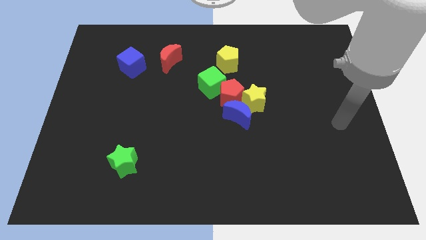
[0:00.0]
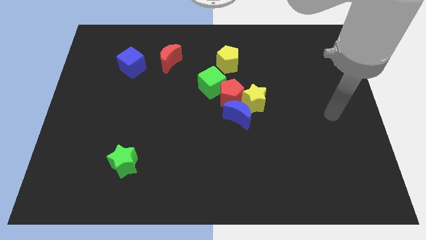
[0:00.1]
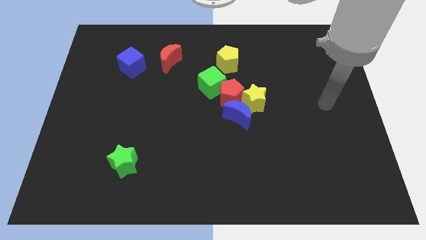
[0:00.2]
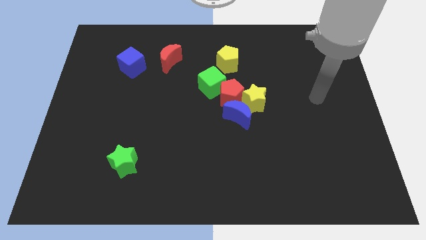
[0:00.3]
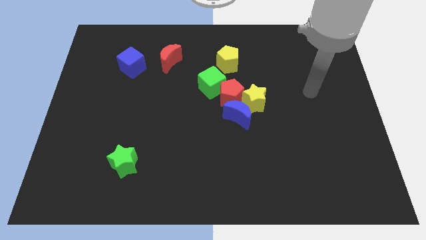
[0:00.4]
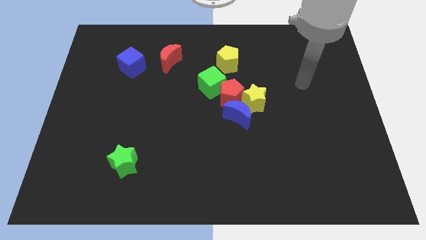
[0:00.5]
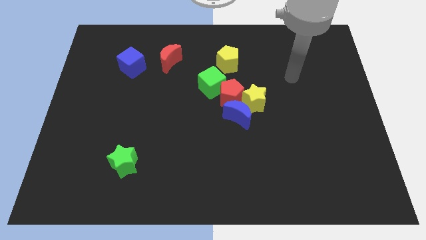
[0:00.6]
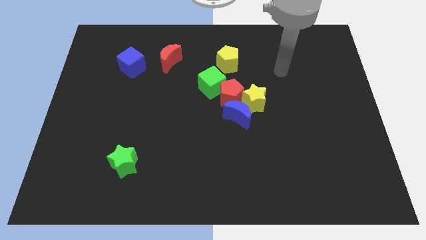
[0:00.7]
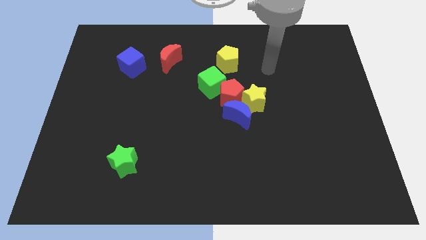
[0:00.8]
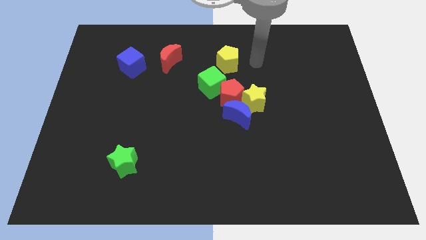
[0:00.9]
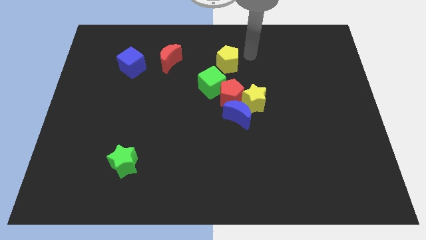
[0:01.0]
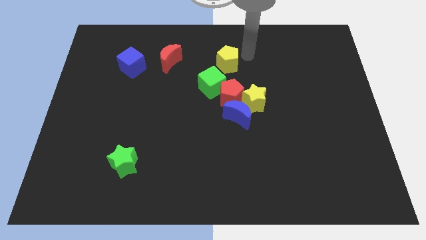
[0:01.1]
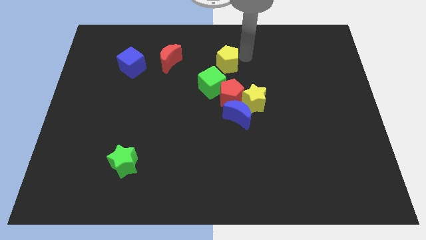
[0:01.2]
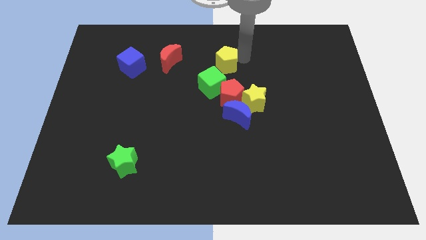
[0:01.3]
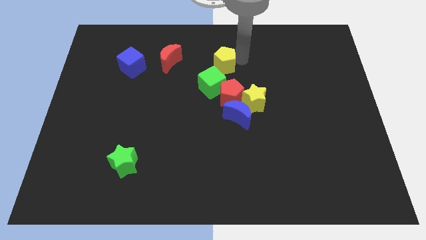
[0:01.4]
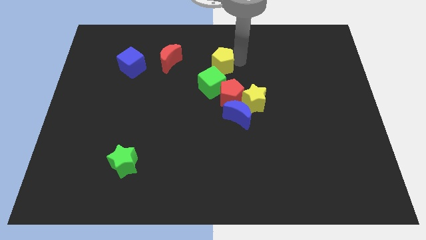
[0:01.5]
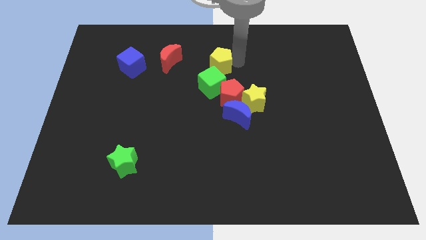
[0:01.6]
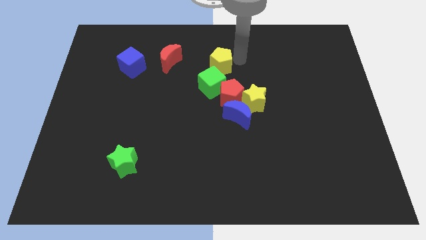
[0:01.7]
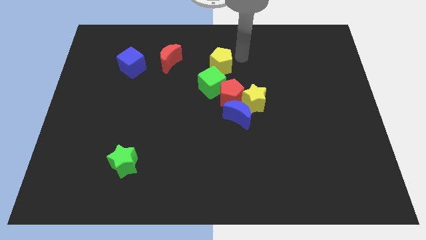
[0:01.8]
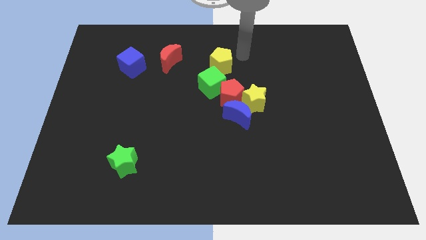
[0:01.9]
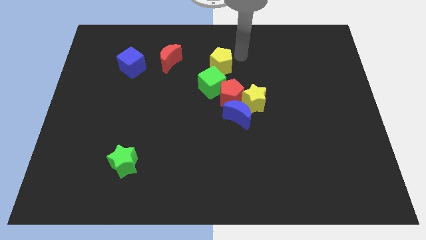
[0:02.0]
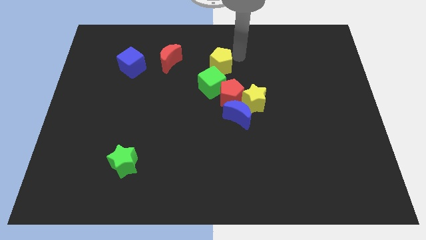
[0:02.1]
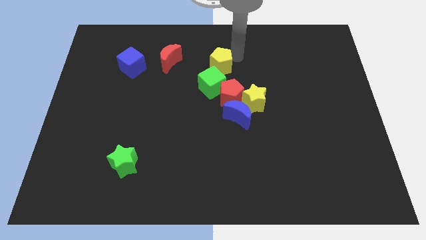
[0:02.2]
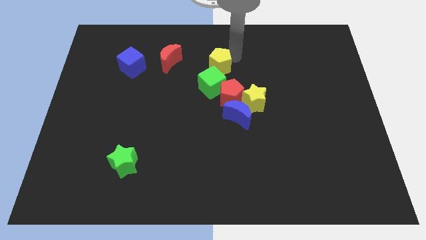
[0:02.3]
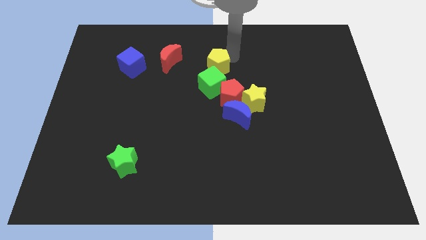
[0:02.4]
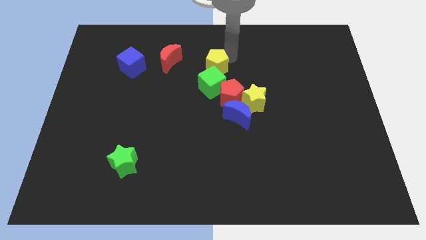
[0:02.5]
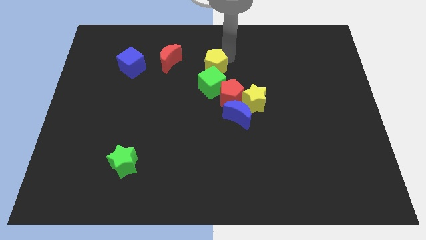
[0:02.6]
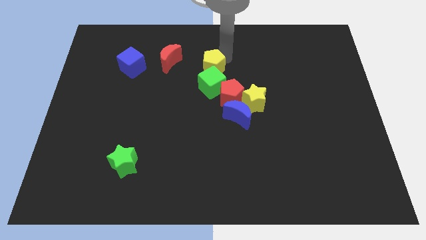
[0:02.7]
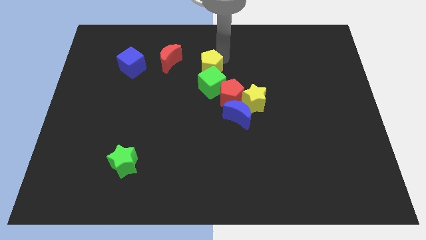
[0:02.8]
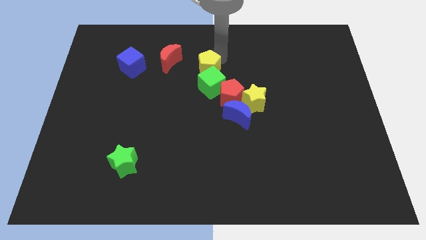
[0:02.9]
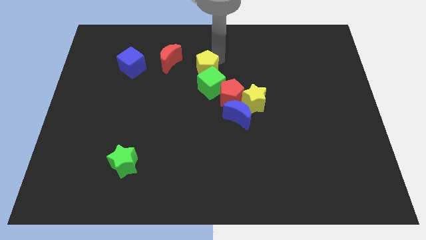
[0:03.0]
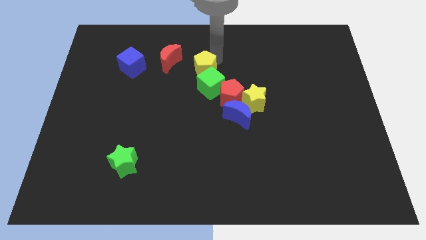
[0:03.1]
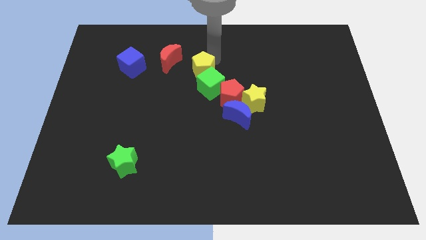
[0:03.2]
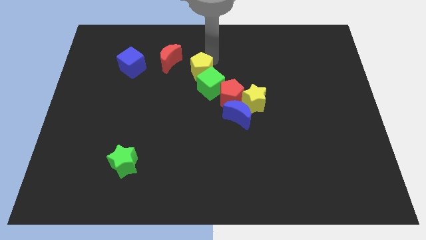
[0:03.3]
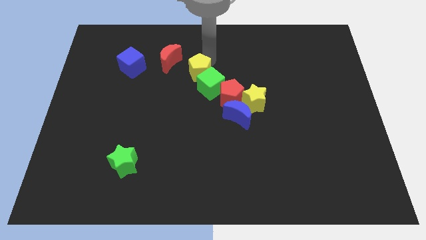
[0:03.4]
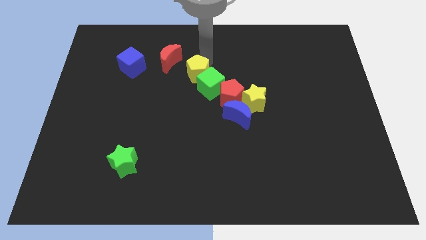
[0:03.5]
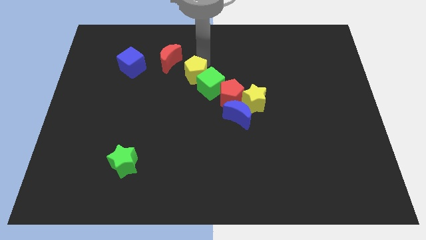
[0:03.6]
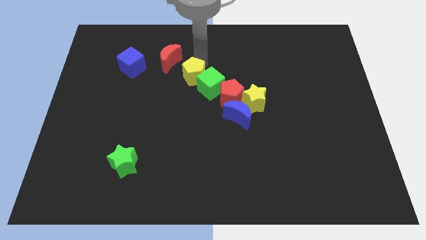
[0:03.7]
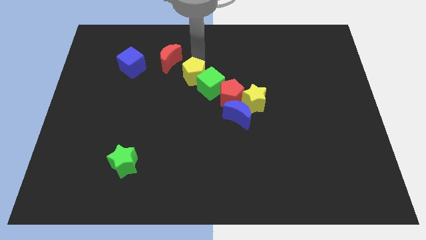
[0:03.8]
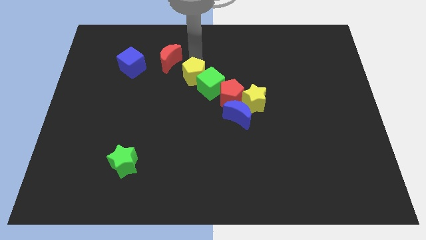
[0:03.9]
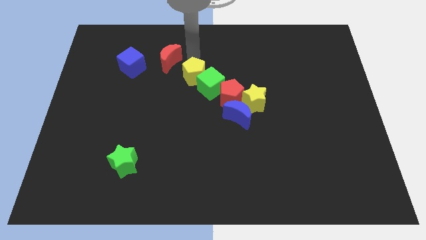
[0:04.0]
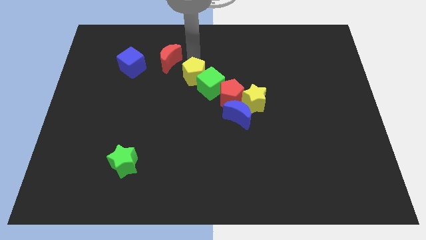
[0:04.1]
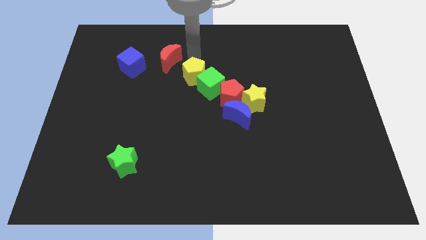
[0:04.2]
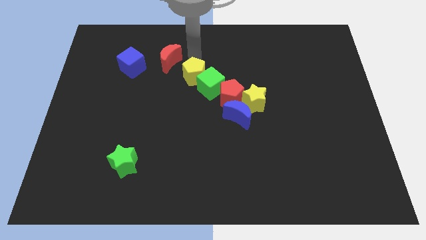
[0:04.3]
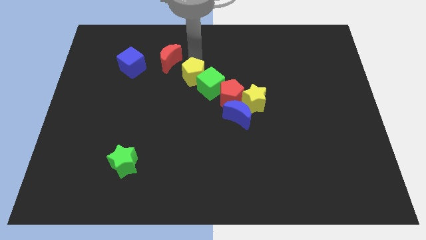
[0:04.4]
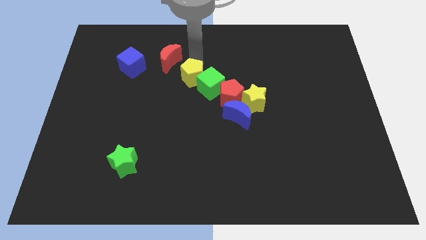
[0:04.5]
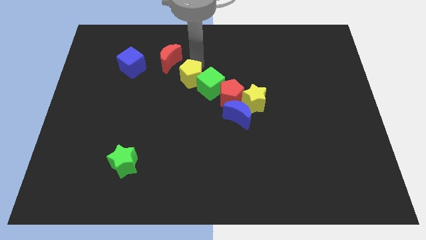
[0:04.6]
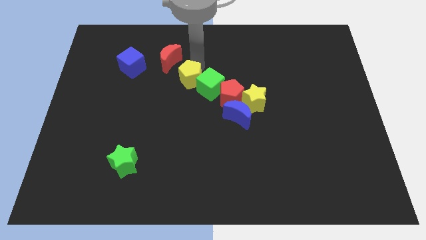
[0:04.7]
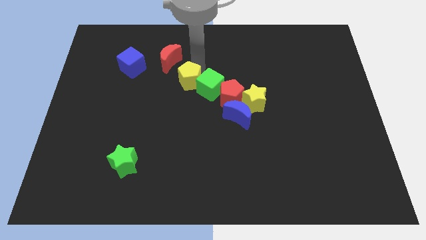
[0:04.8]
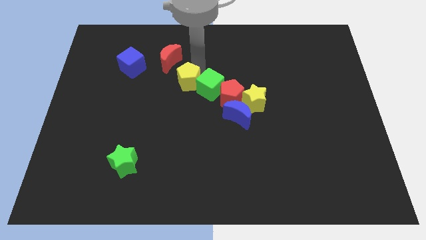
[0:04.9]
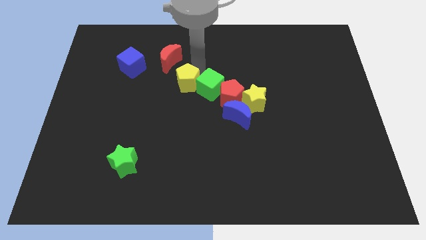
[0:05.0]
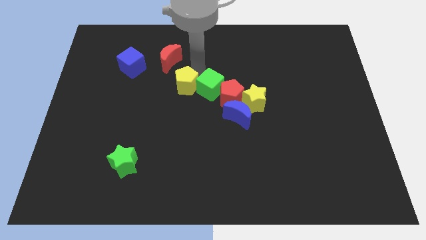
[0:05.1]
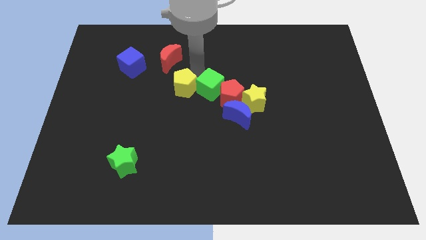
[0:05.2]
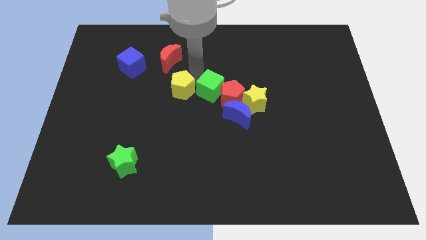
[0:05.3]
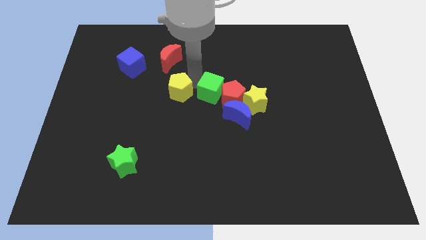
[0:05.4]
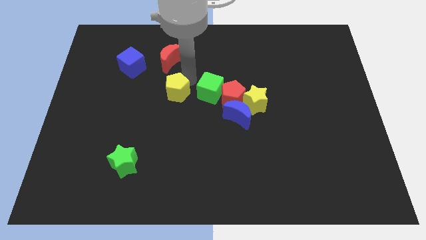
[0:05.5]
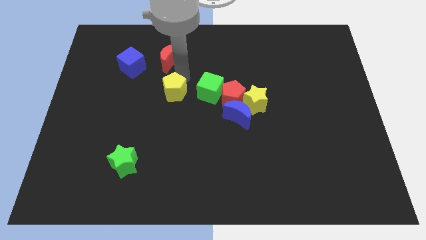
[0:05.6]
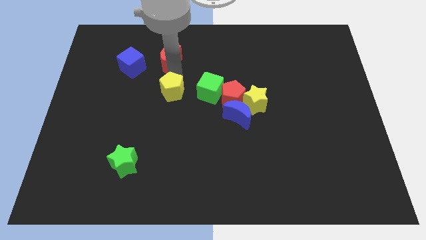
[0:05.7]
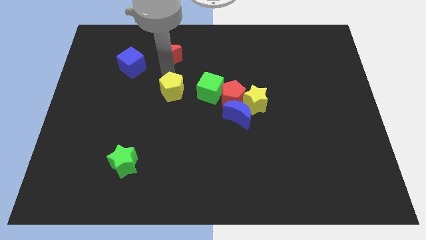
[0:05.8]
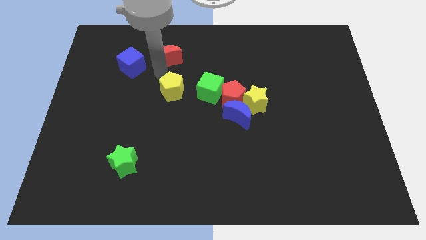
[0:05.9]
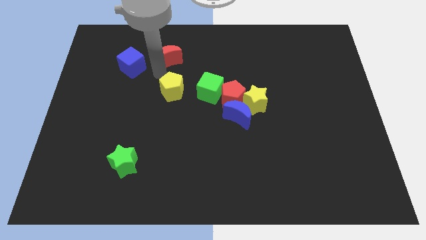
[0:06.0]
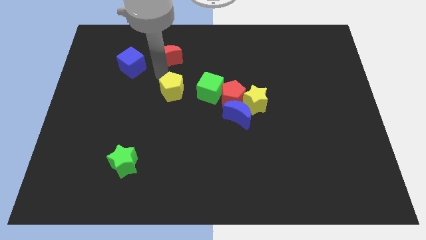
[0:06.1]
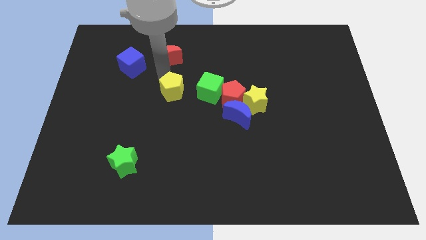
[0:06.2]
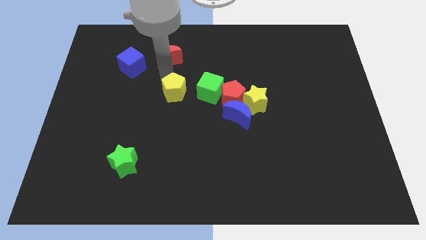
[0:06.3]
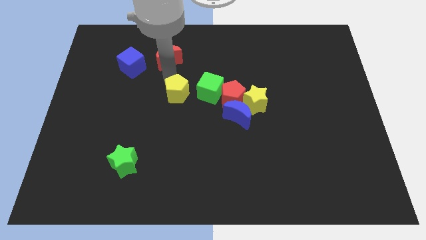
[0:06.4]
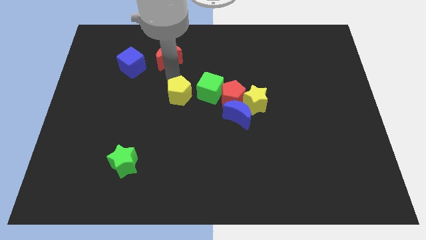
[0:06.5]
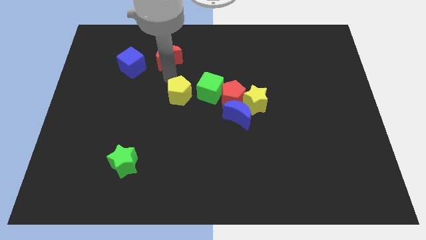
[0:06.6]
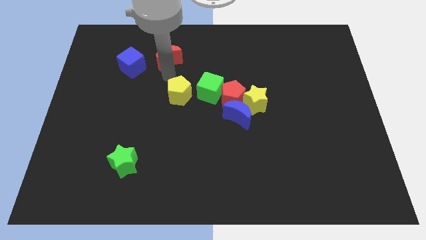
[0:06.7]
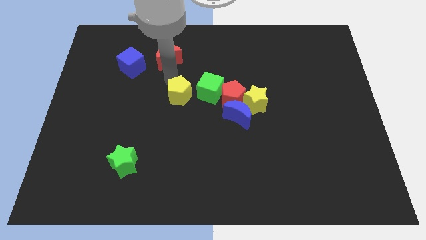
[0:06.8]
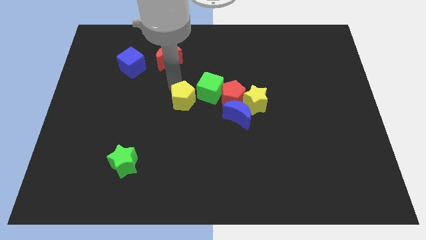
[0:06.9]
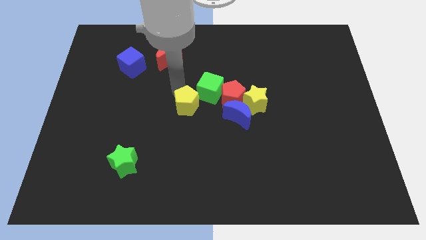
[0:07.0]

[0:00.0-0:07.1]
put the yellow pentagon to the left of the blue moon
